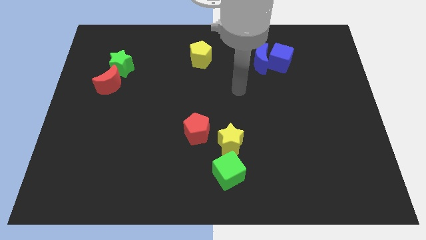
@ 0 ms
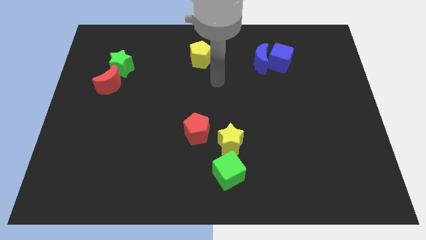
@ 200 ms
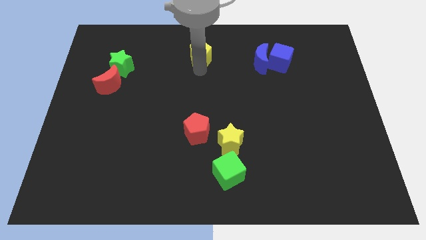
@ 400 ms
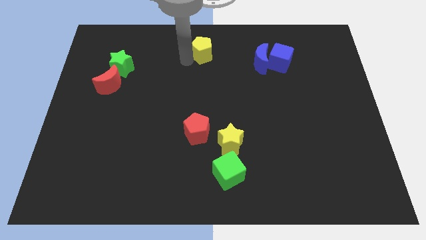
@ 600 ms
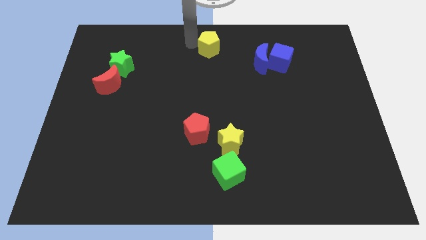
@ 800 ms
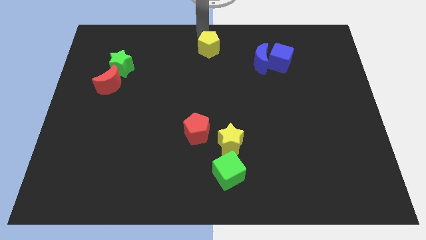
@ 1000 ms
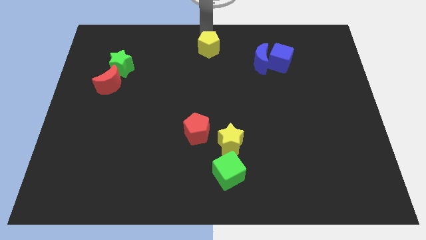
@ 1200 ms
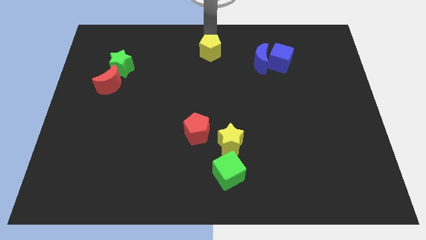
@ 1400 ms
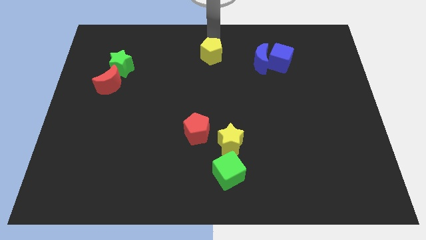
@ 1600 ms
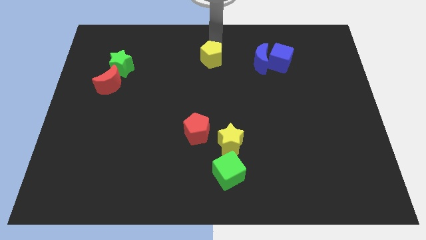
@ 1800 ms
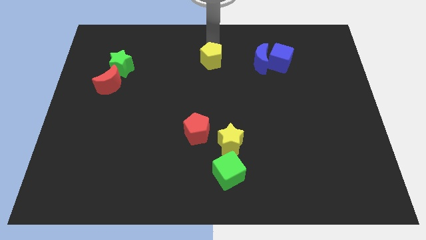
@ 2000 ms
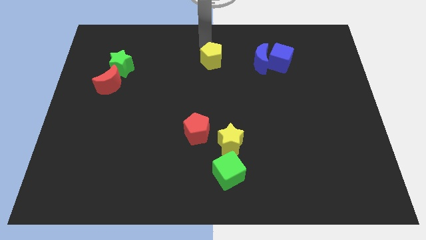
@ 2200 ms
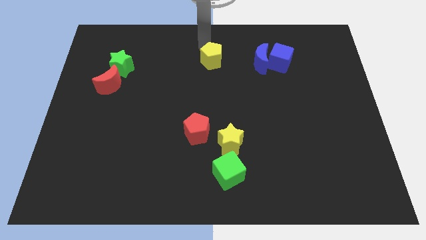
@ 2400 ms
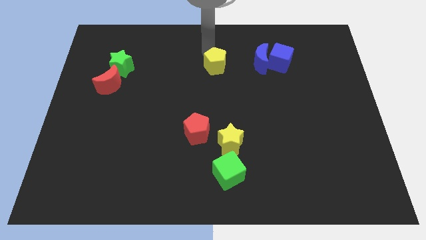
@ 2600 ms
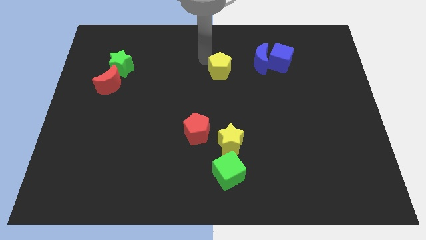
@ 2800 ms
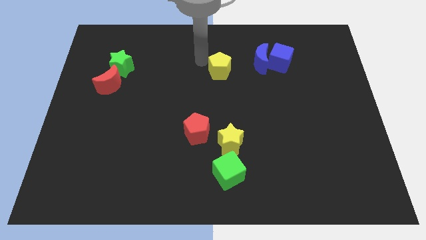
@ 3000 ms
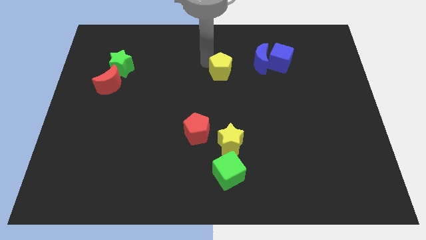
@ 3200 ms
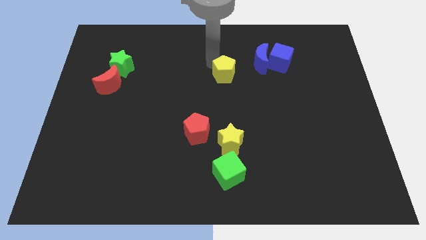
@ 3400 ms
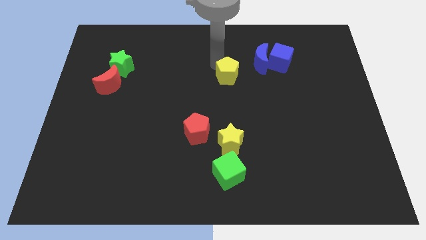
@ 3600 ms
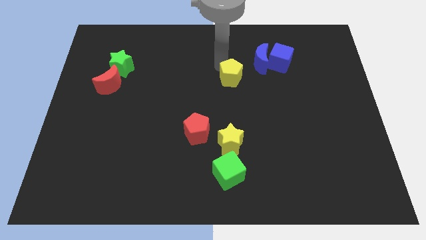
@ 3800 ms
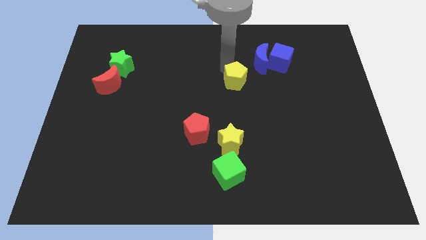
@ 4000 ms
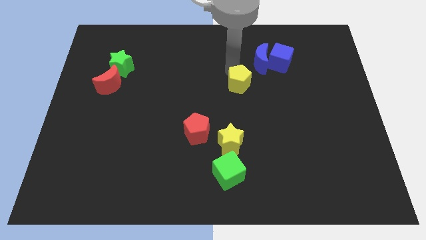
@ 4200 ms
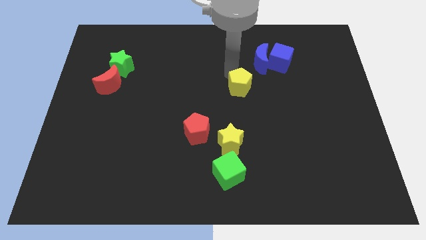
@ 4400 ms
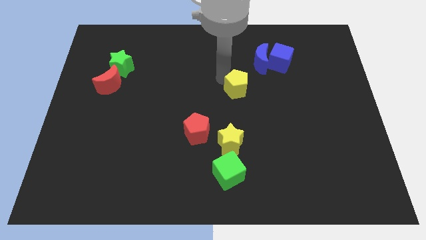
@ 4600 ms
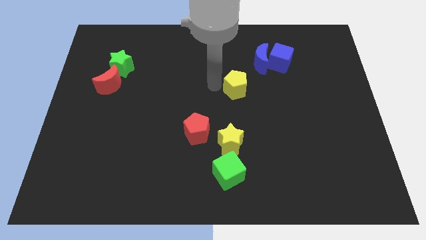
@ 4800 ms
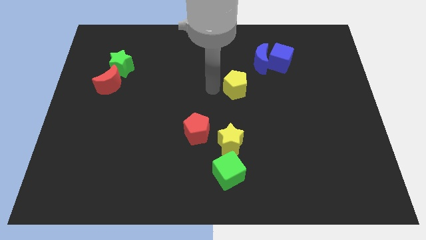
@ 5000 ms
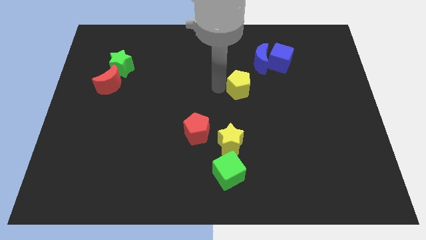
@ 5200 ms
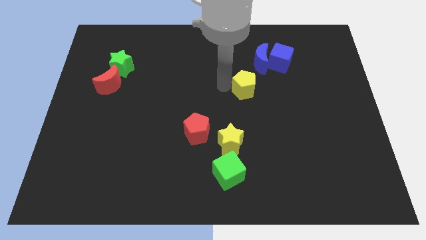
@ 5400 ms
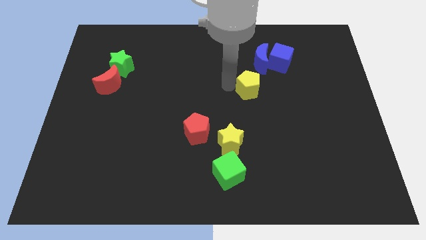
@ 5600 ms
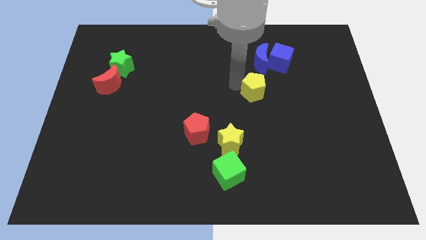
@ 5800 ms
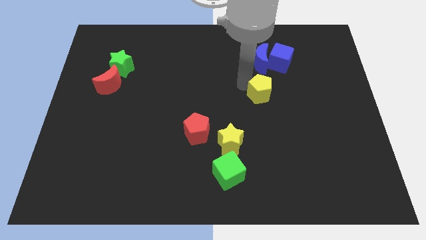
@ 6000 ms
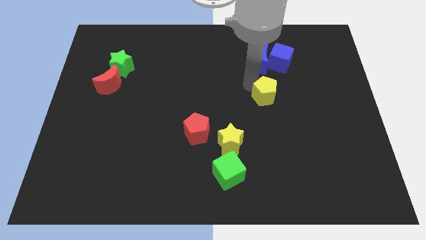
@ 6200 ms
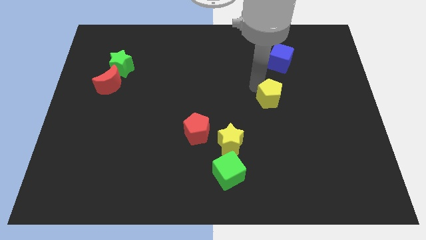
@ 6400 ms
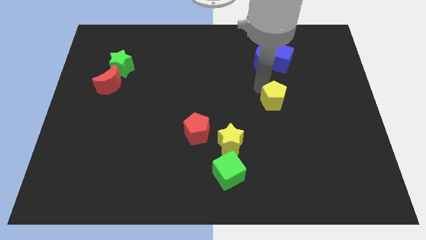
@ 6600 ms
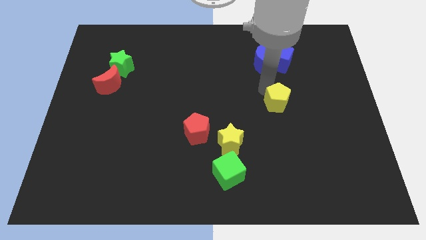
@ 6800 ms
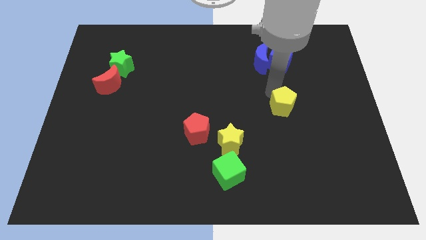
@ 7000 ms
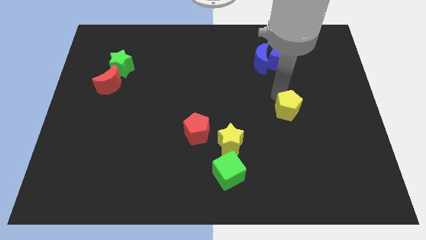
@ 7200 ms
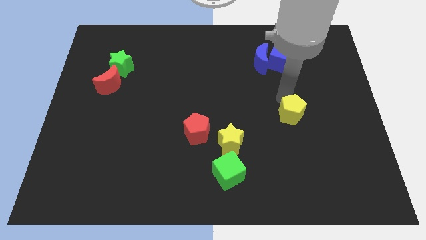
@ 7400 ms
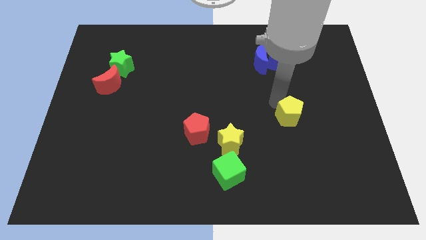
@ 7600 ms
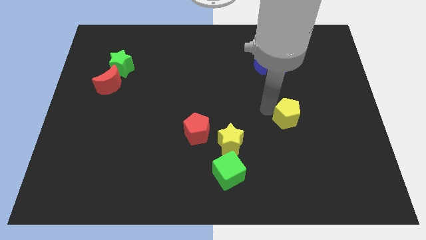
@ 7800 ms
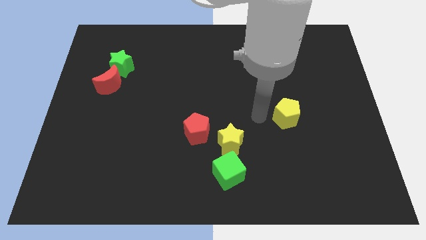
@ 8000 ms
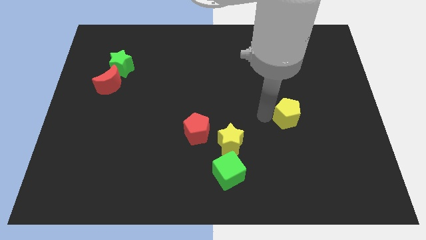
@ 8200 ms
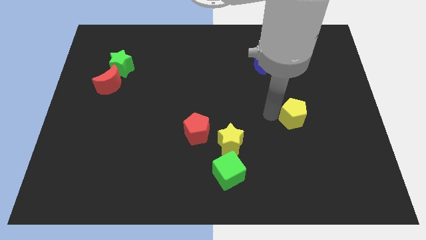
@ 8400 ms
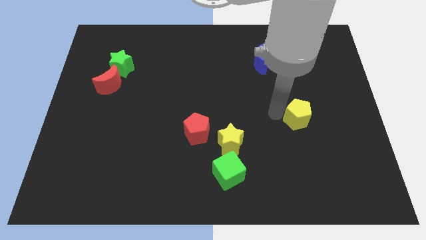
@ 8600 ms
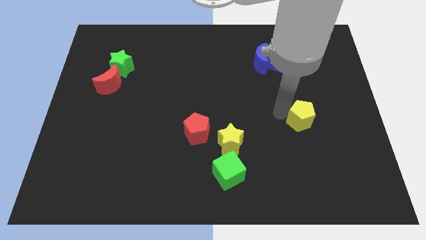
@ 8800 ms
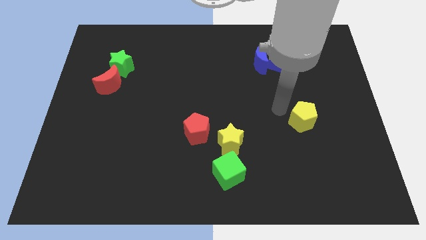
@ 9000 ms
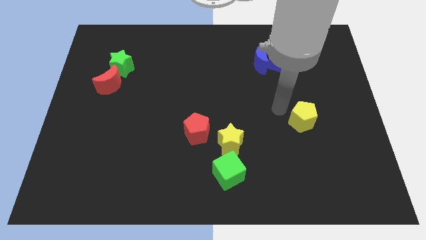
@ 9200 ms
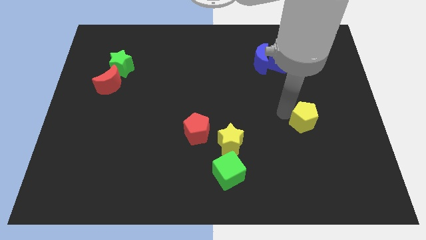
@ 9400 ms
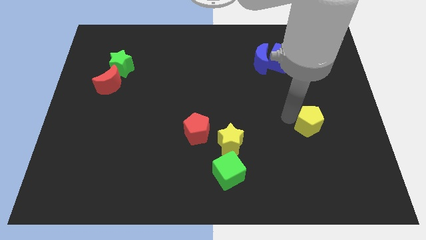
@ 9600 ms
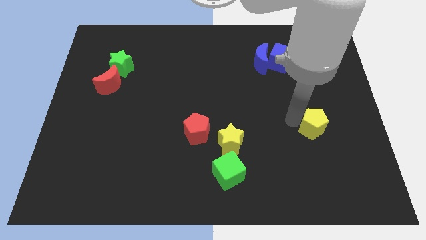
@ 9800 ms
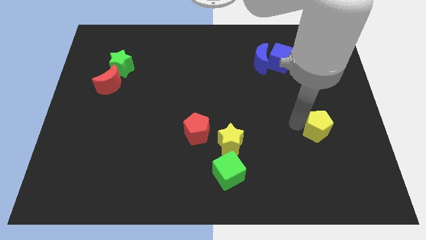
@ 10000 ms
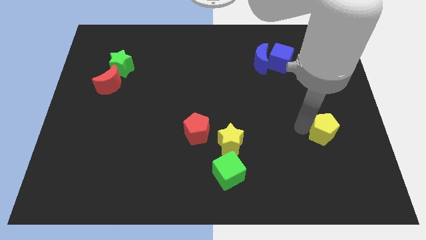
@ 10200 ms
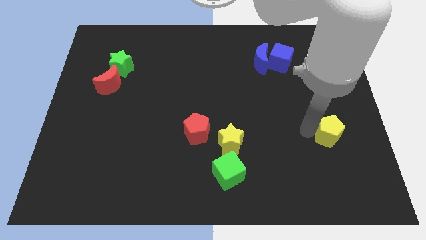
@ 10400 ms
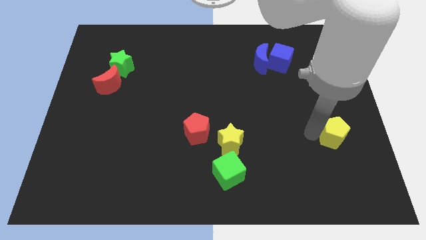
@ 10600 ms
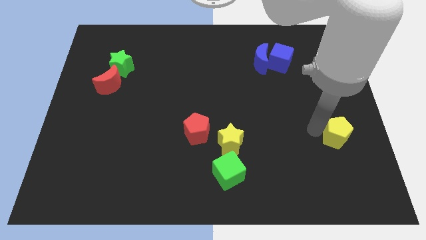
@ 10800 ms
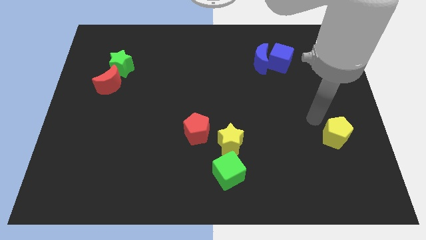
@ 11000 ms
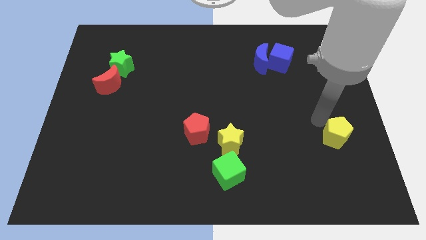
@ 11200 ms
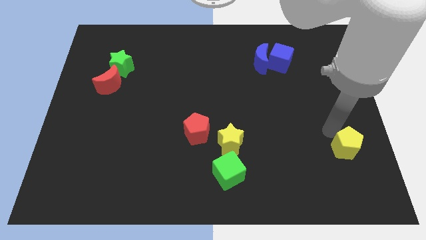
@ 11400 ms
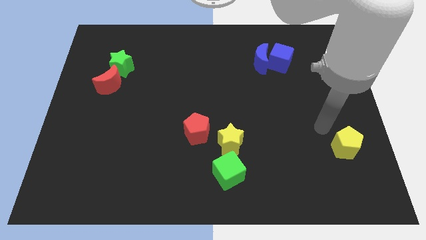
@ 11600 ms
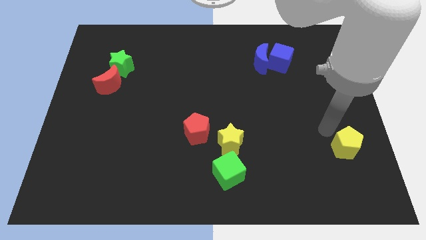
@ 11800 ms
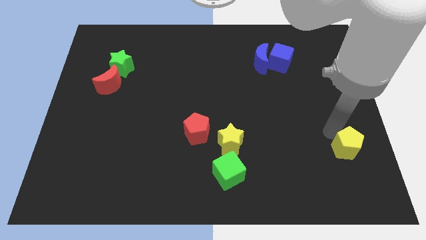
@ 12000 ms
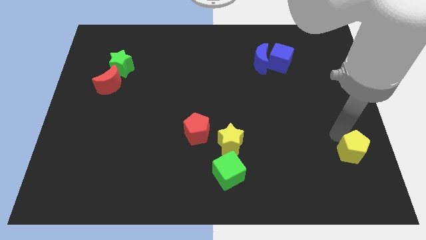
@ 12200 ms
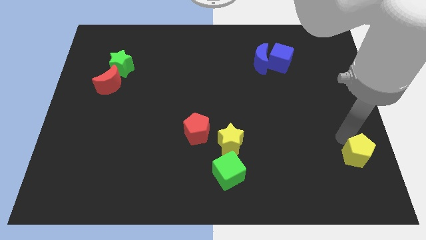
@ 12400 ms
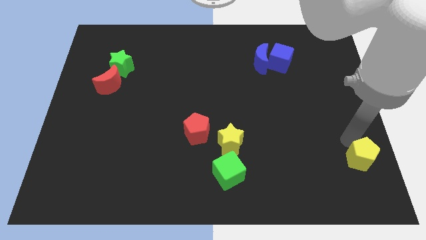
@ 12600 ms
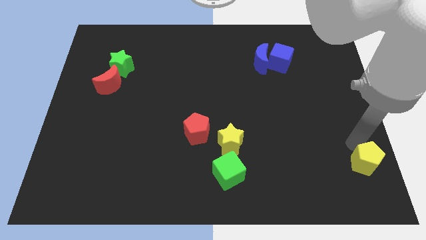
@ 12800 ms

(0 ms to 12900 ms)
push the yellow pentagon to the bottom right of the board
